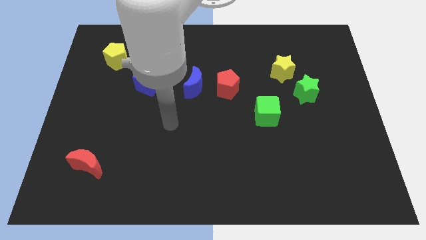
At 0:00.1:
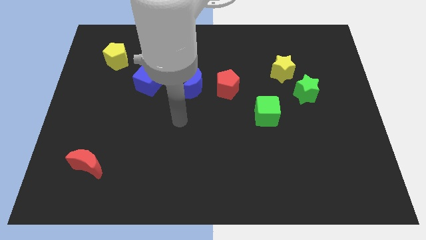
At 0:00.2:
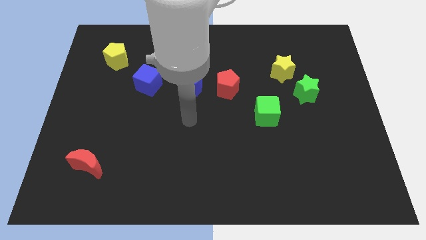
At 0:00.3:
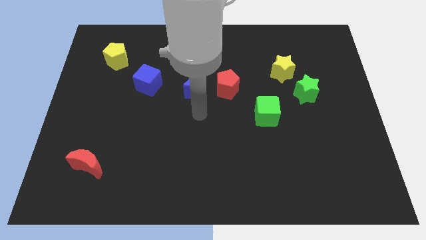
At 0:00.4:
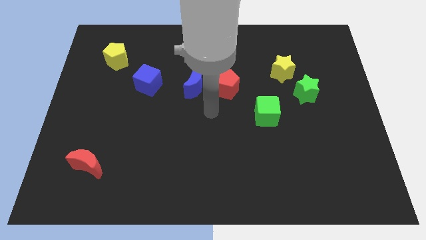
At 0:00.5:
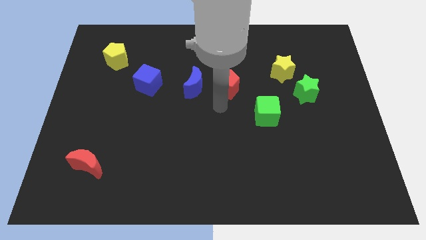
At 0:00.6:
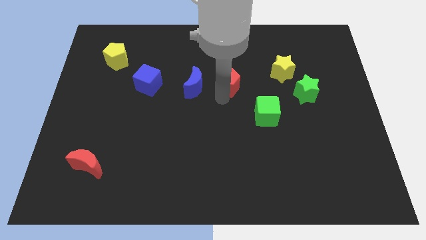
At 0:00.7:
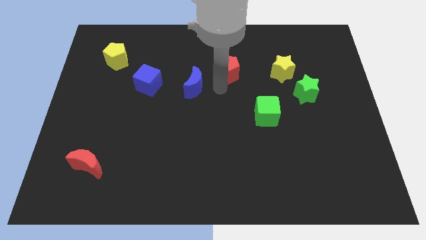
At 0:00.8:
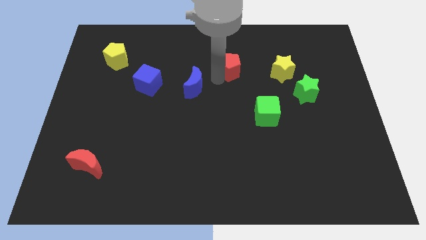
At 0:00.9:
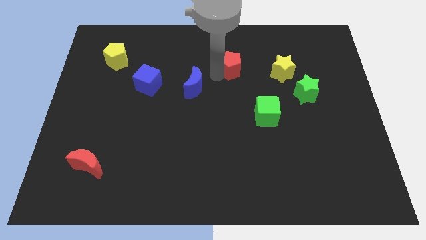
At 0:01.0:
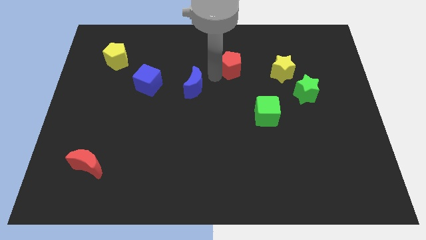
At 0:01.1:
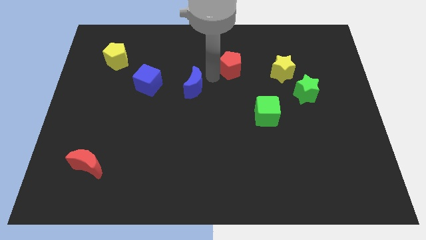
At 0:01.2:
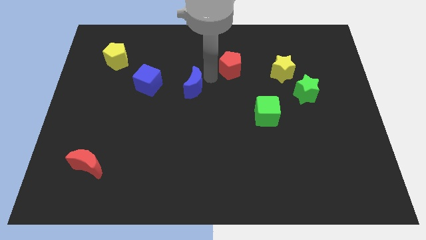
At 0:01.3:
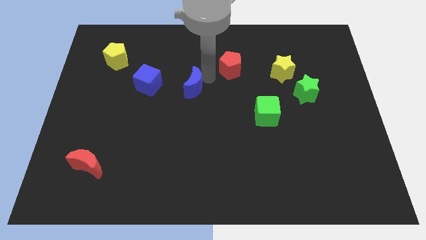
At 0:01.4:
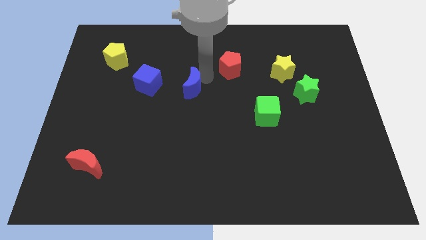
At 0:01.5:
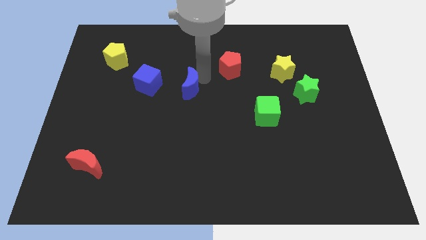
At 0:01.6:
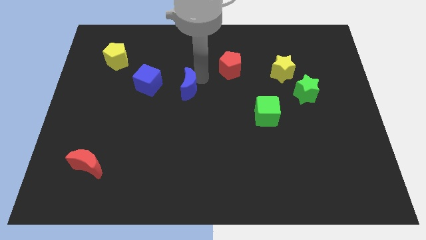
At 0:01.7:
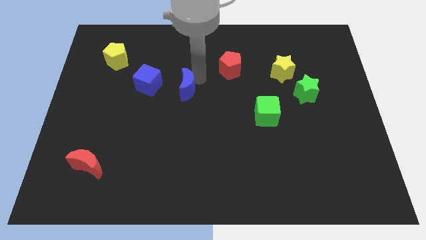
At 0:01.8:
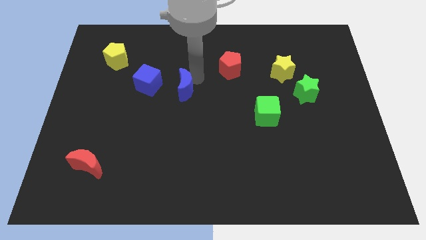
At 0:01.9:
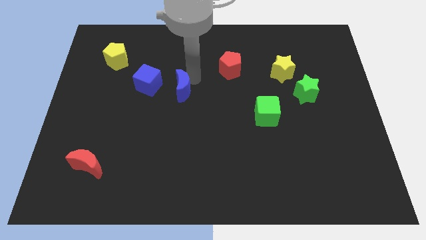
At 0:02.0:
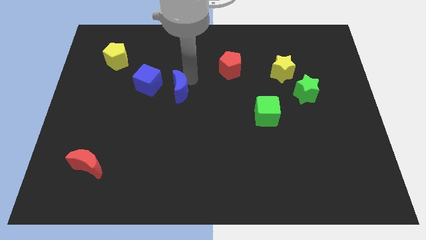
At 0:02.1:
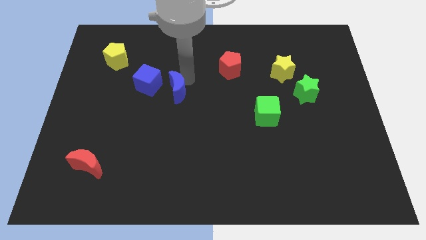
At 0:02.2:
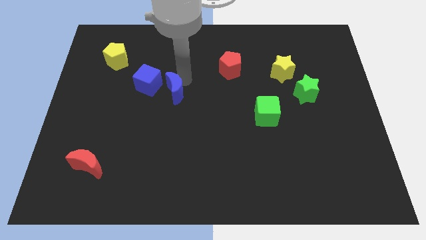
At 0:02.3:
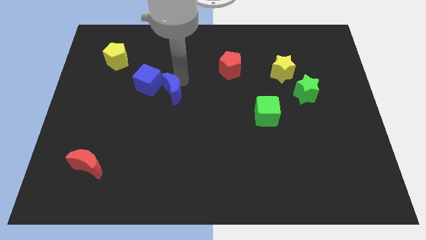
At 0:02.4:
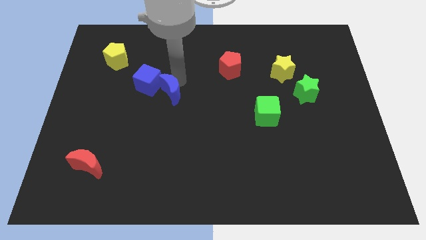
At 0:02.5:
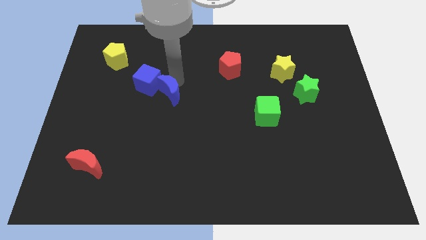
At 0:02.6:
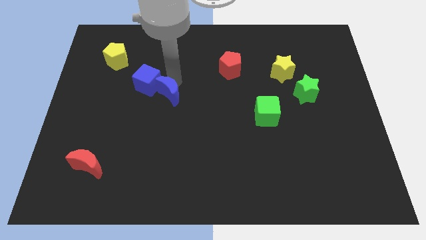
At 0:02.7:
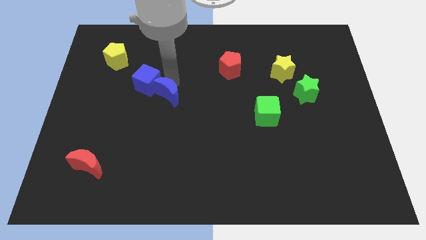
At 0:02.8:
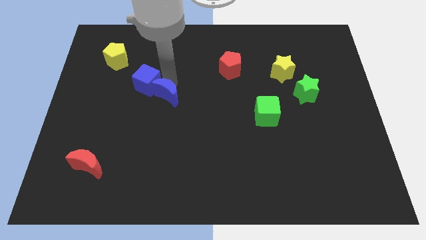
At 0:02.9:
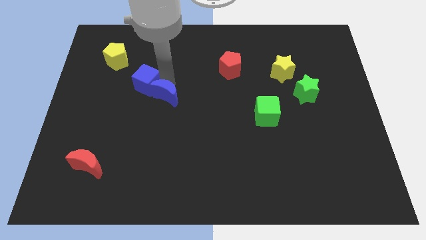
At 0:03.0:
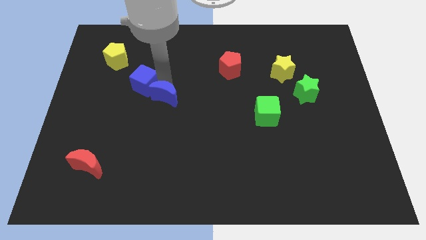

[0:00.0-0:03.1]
slightly slide the blue moon downwards and left

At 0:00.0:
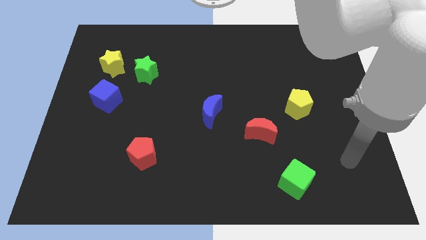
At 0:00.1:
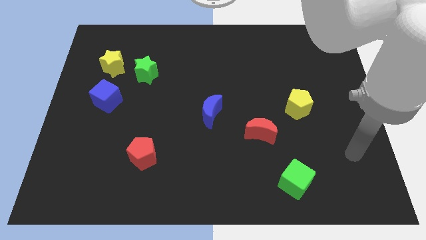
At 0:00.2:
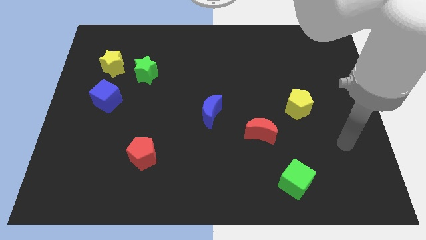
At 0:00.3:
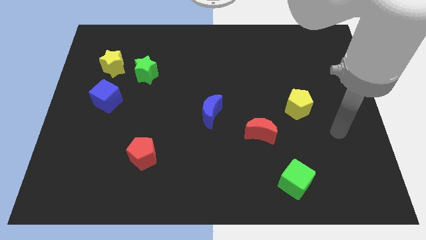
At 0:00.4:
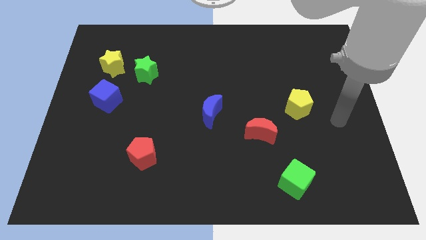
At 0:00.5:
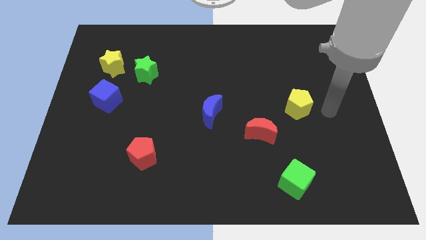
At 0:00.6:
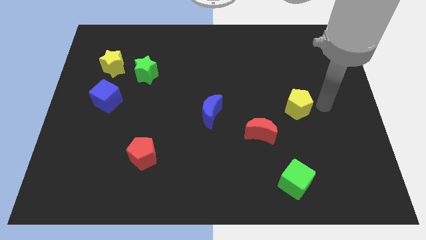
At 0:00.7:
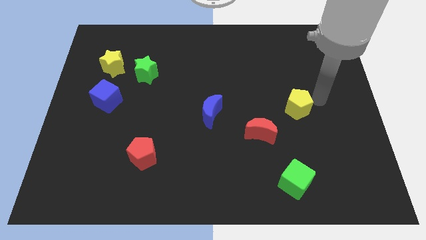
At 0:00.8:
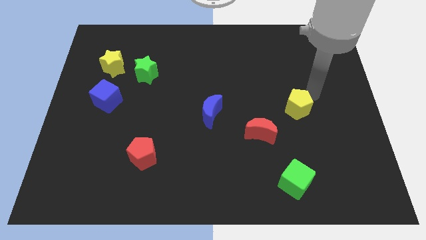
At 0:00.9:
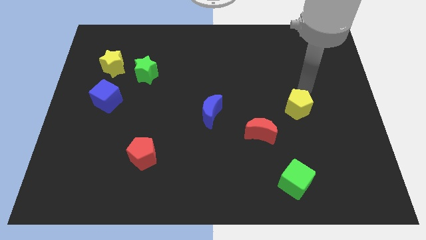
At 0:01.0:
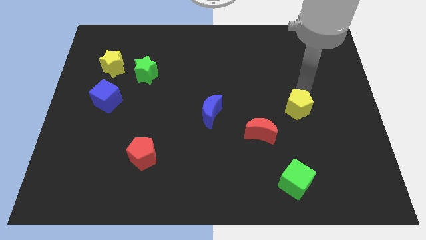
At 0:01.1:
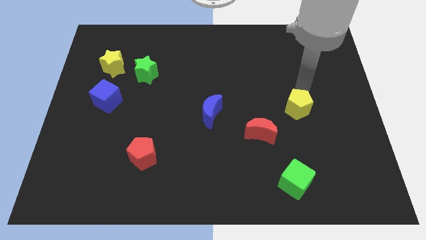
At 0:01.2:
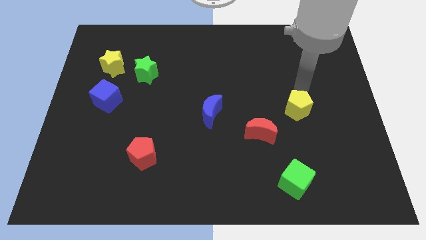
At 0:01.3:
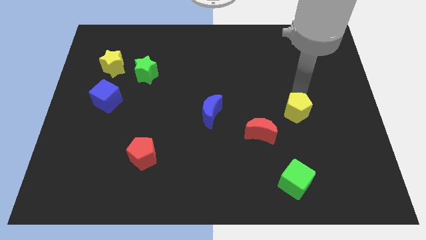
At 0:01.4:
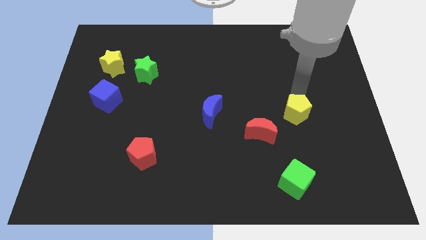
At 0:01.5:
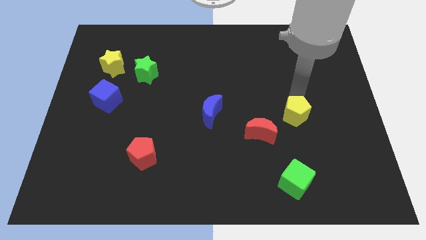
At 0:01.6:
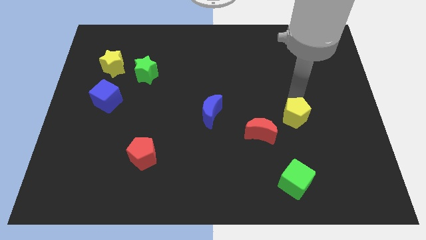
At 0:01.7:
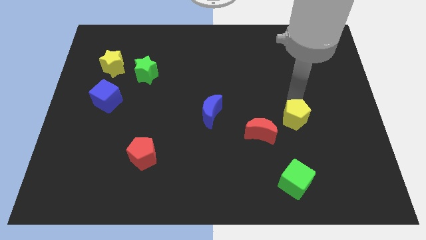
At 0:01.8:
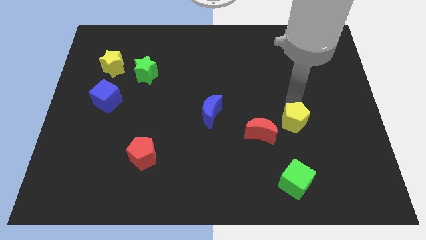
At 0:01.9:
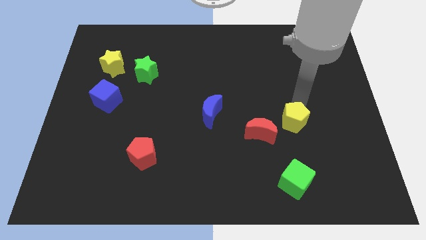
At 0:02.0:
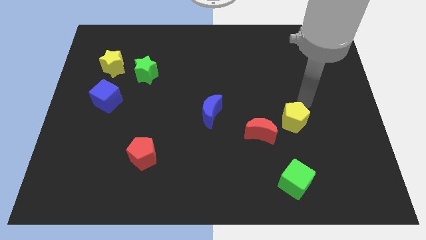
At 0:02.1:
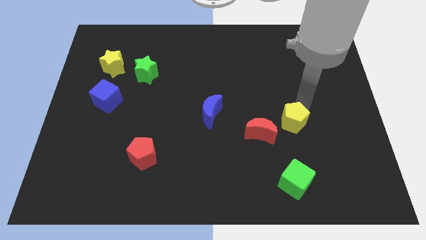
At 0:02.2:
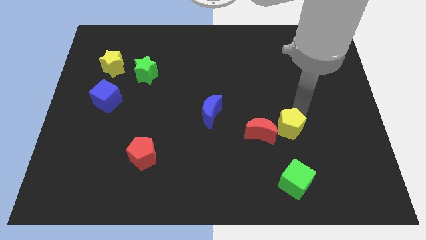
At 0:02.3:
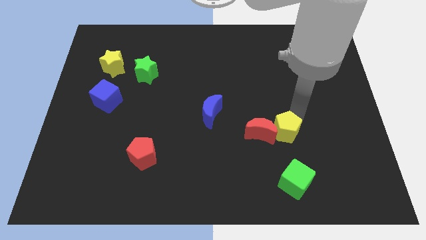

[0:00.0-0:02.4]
slide the yellow pentagon somewhat diagonally down and to the left

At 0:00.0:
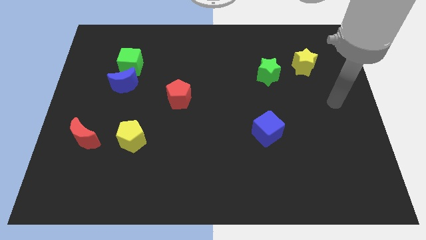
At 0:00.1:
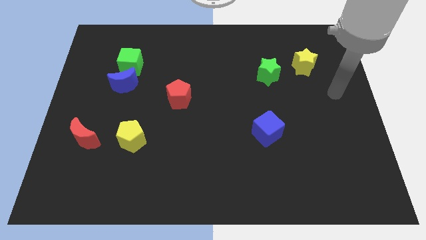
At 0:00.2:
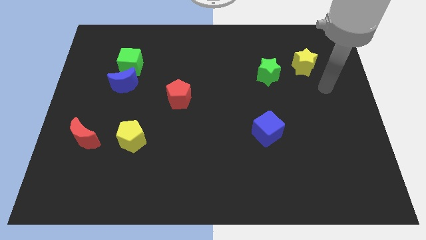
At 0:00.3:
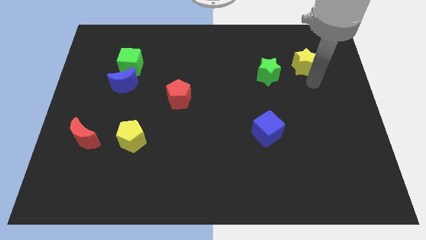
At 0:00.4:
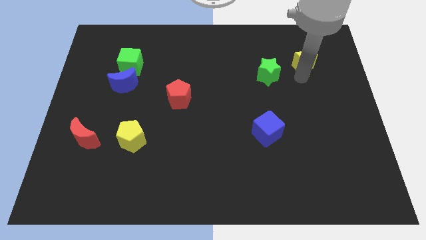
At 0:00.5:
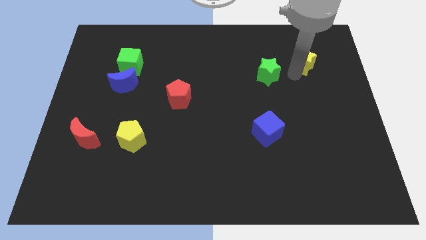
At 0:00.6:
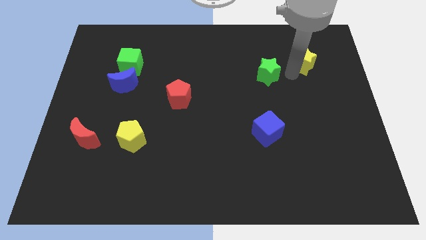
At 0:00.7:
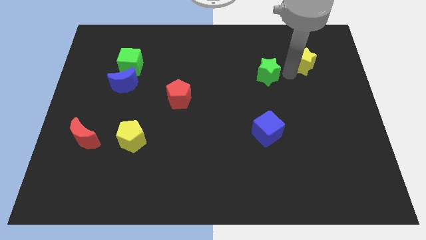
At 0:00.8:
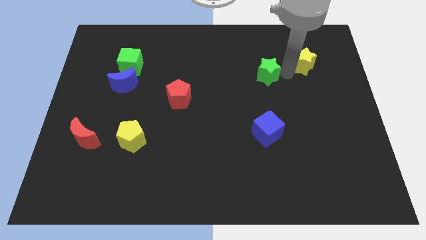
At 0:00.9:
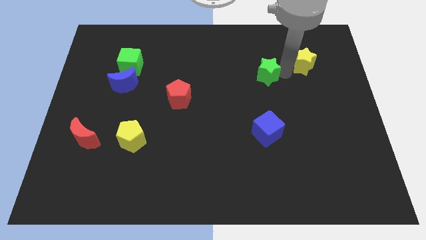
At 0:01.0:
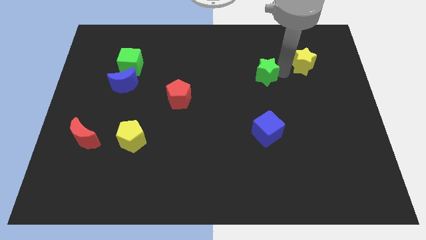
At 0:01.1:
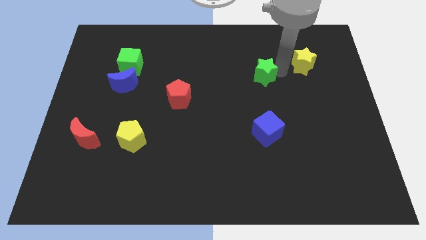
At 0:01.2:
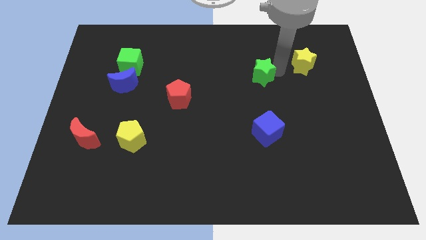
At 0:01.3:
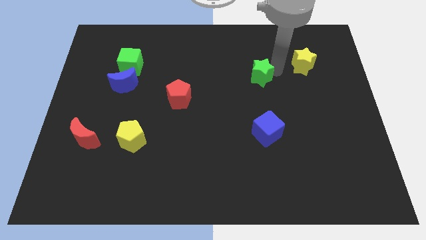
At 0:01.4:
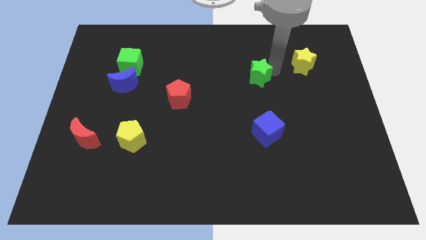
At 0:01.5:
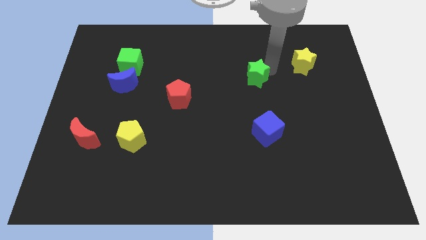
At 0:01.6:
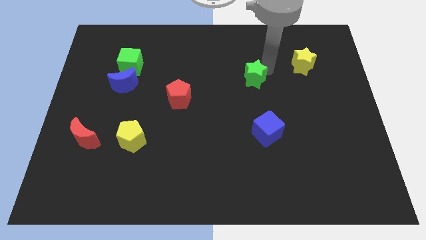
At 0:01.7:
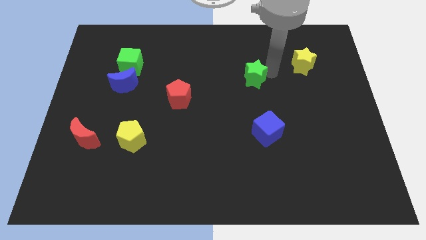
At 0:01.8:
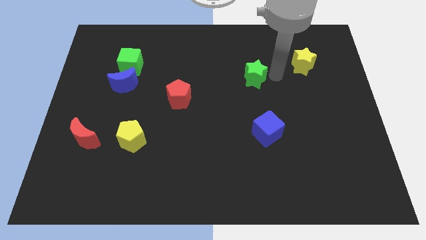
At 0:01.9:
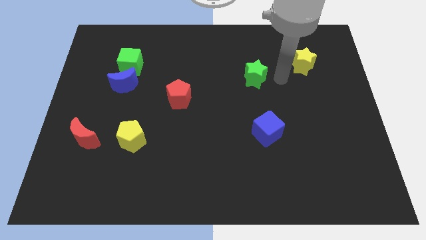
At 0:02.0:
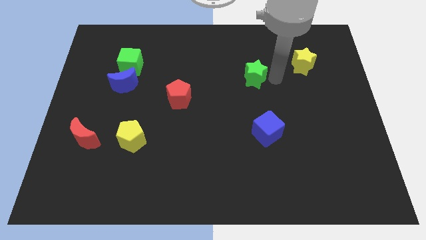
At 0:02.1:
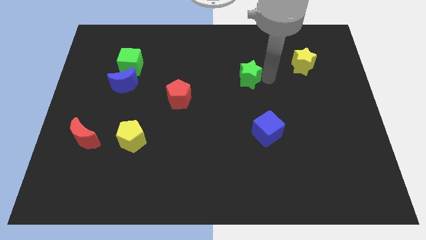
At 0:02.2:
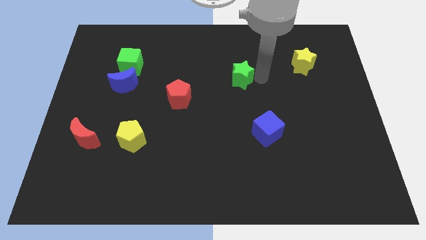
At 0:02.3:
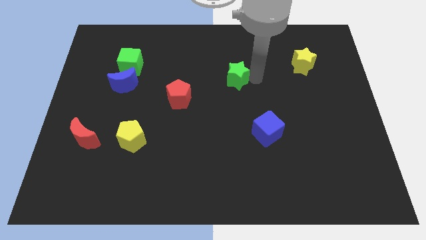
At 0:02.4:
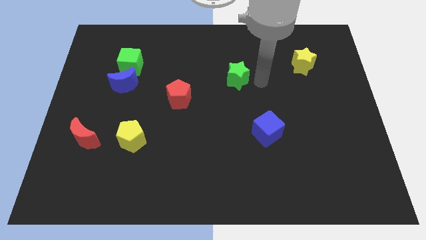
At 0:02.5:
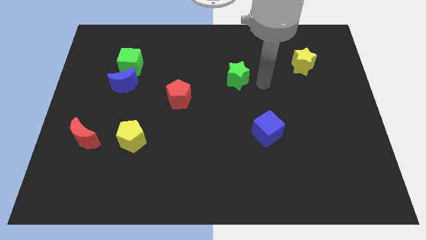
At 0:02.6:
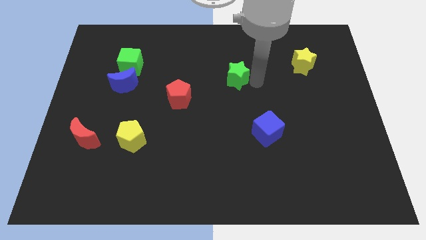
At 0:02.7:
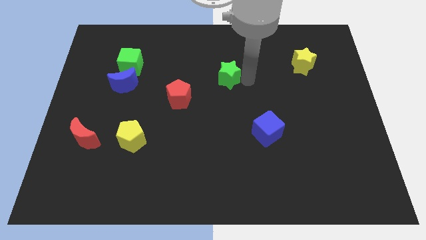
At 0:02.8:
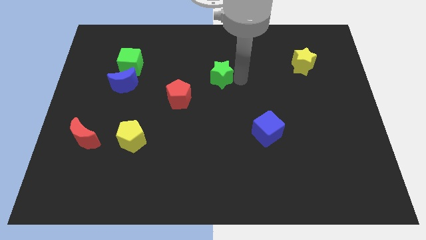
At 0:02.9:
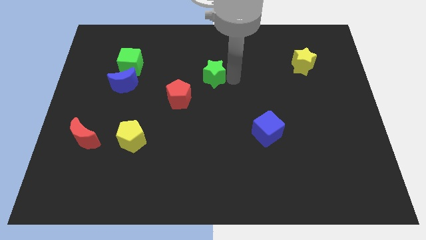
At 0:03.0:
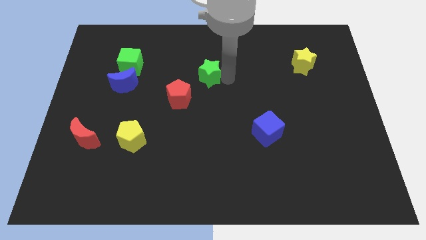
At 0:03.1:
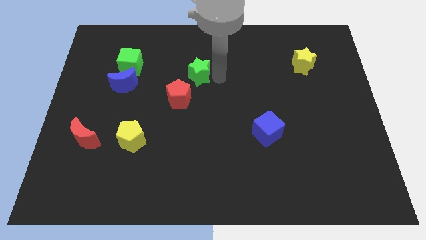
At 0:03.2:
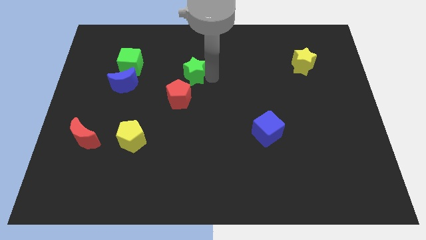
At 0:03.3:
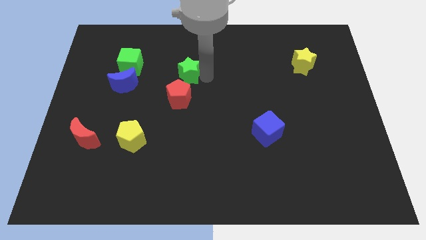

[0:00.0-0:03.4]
move the green star to the left
